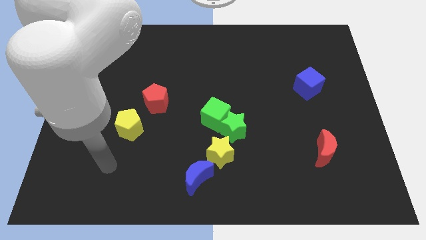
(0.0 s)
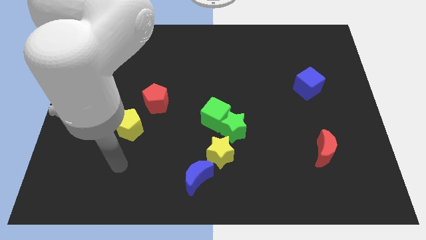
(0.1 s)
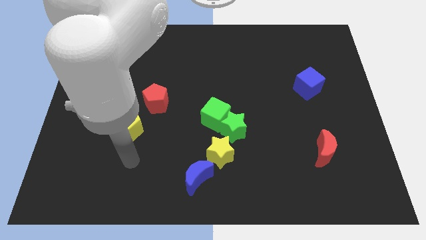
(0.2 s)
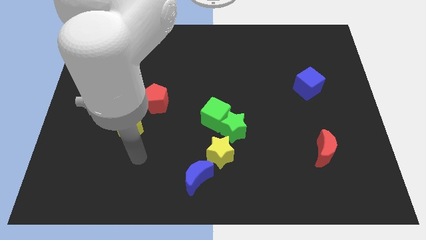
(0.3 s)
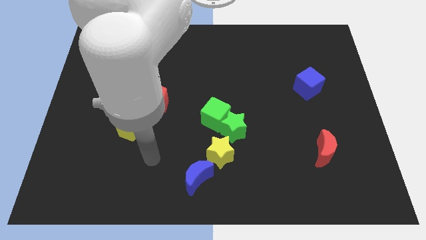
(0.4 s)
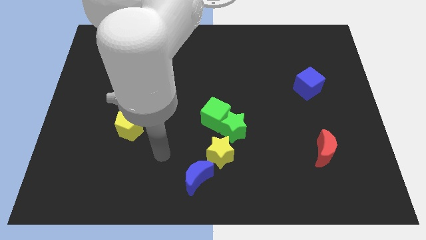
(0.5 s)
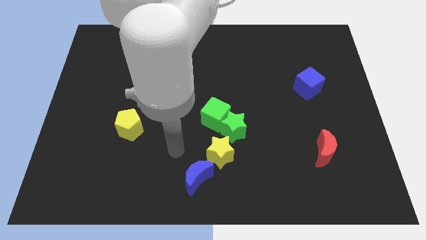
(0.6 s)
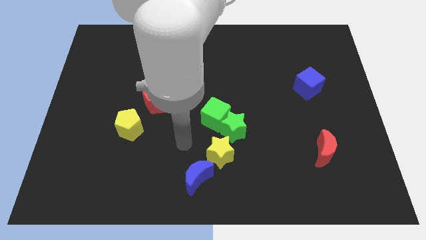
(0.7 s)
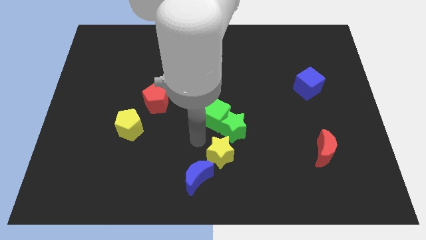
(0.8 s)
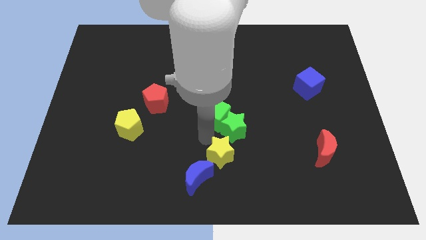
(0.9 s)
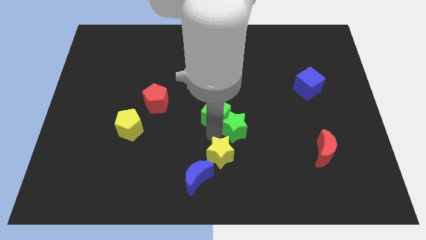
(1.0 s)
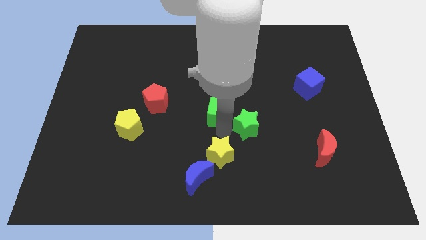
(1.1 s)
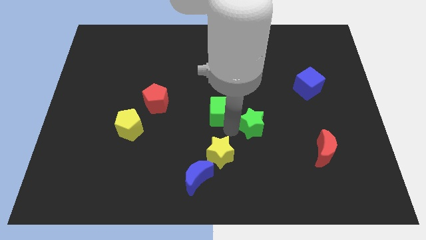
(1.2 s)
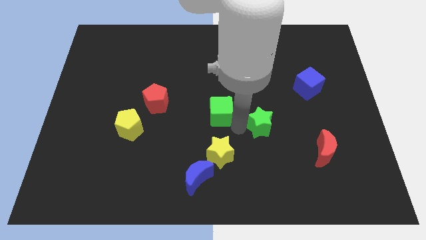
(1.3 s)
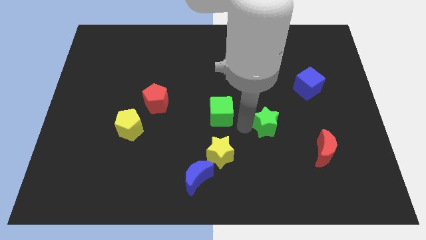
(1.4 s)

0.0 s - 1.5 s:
separate the green star from the green cube and yellow star

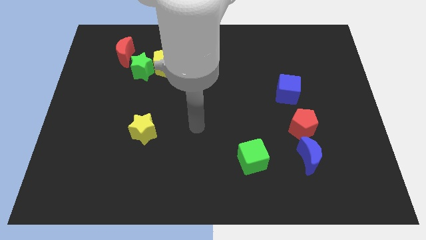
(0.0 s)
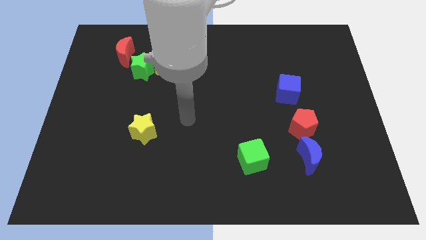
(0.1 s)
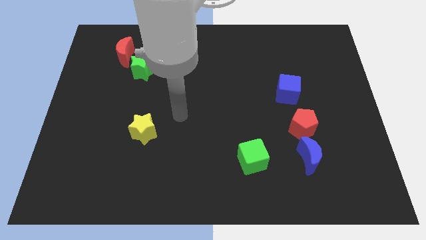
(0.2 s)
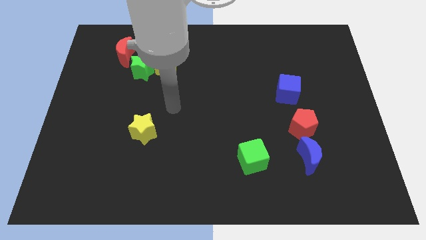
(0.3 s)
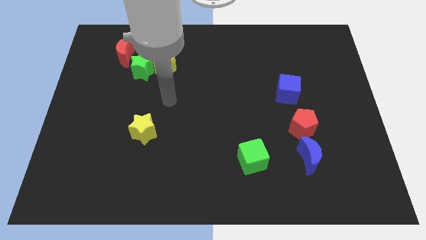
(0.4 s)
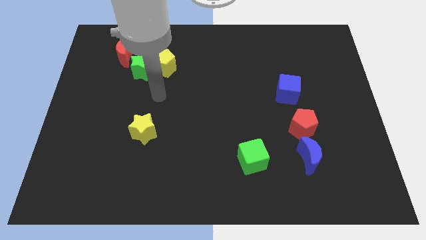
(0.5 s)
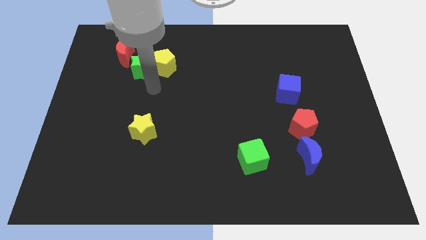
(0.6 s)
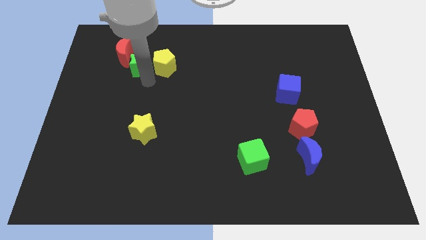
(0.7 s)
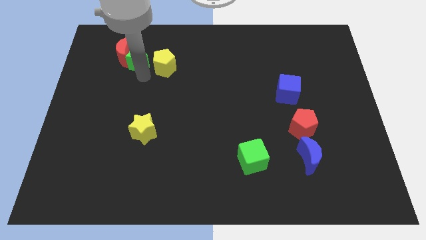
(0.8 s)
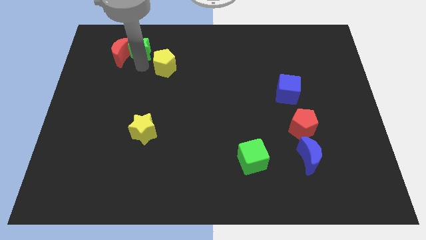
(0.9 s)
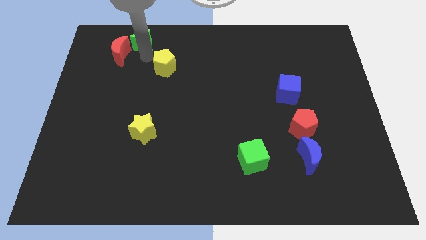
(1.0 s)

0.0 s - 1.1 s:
pull the yellow pentagon apart from the green star

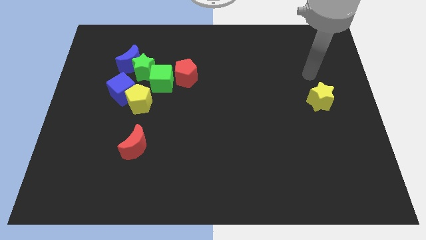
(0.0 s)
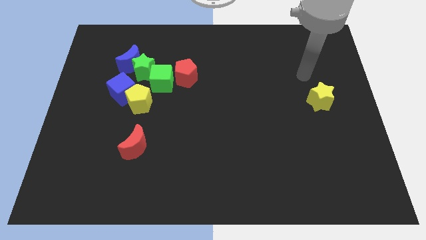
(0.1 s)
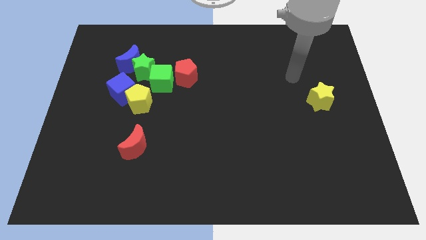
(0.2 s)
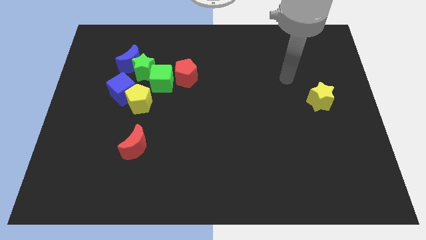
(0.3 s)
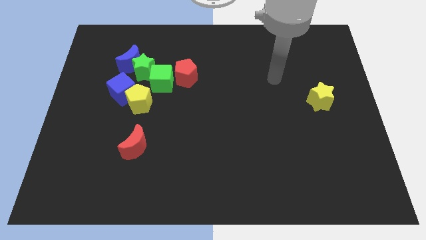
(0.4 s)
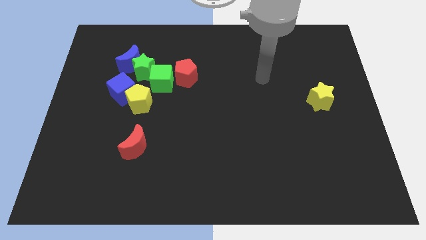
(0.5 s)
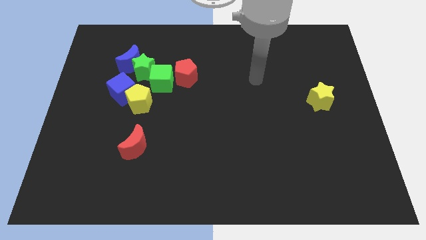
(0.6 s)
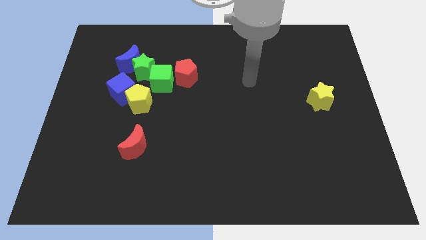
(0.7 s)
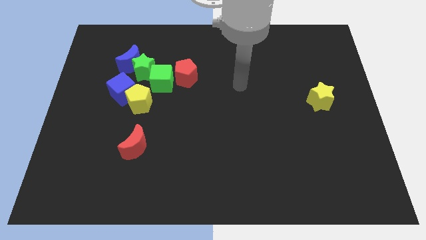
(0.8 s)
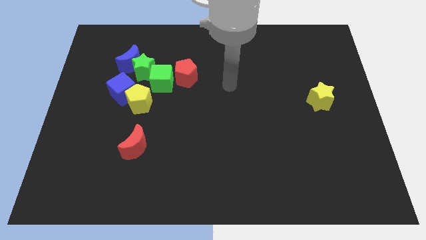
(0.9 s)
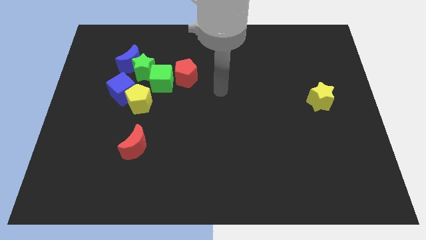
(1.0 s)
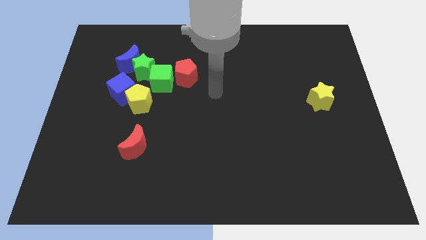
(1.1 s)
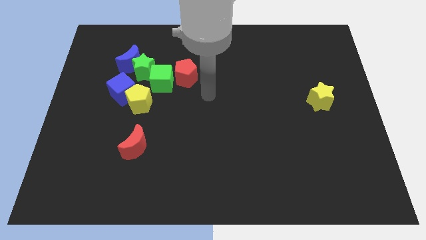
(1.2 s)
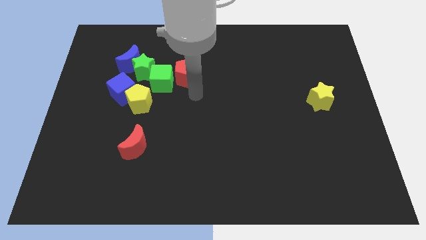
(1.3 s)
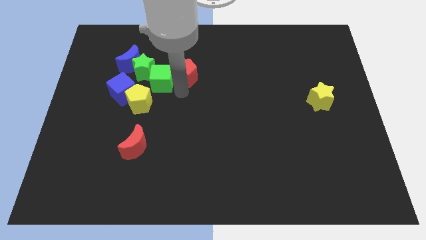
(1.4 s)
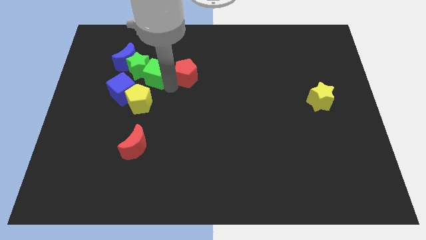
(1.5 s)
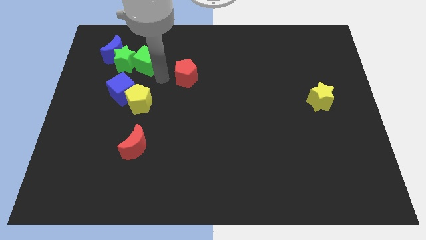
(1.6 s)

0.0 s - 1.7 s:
move the red pentagon away from the green cube

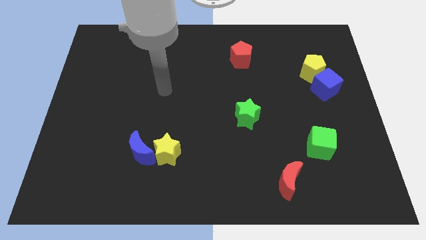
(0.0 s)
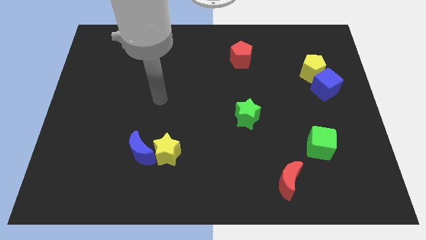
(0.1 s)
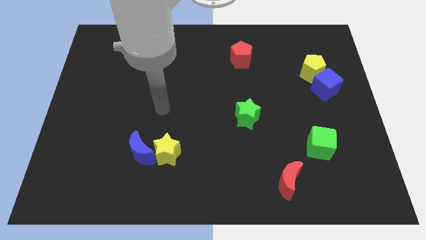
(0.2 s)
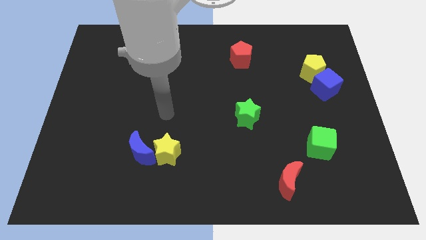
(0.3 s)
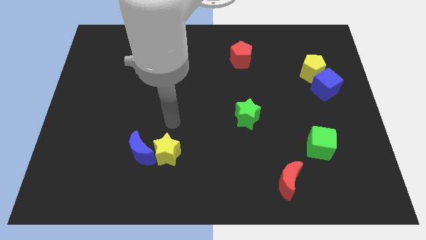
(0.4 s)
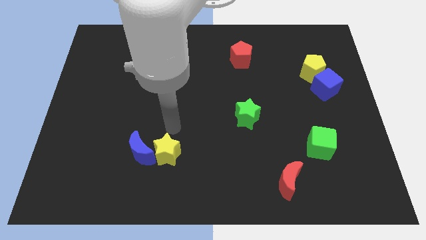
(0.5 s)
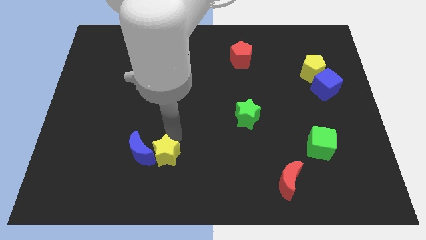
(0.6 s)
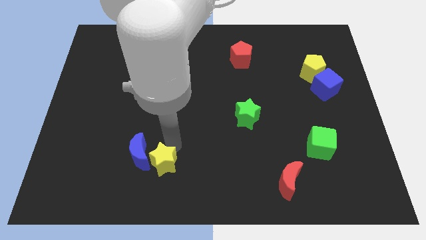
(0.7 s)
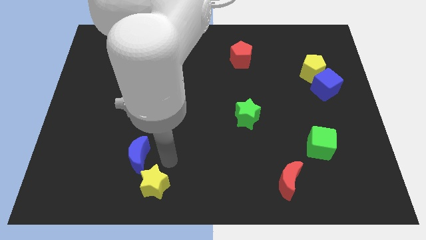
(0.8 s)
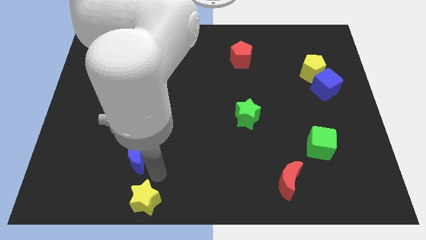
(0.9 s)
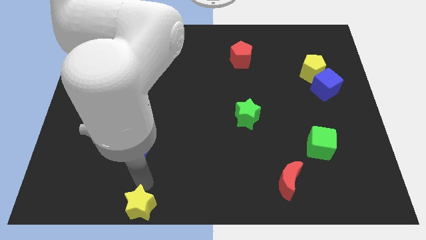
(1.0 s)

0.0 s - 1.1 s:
pull the blue moon apart from the yellow star

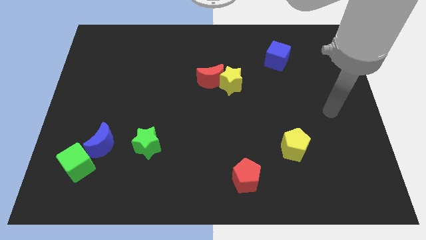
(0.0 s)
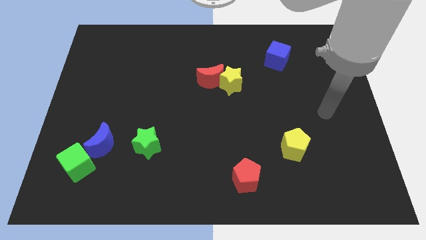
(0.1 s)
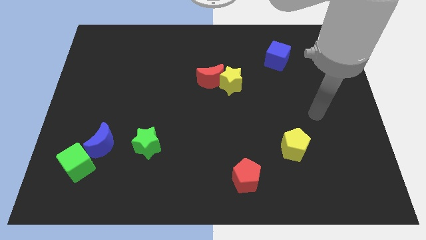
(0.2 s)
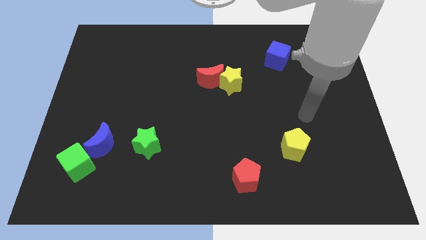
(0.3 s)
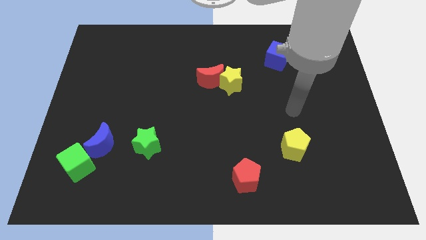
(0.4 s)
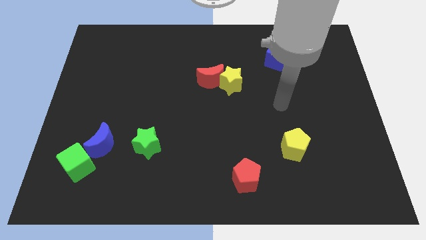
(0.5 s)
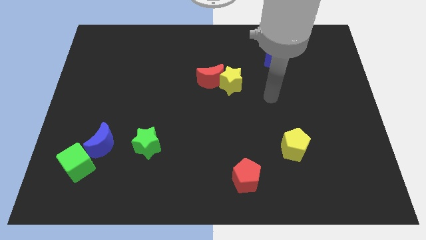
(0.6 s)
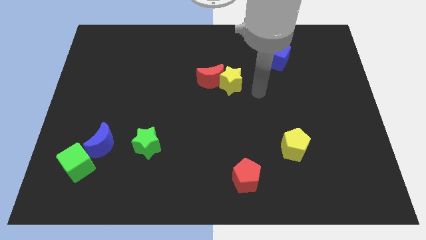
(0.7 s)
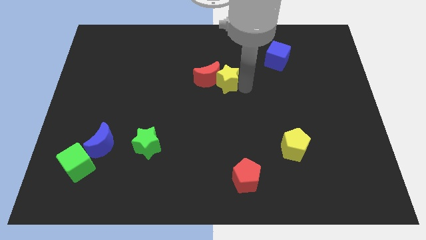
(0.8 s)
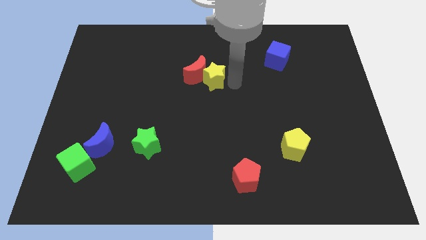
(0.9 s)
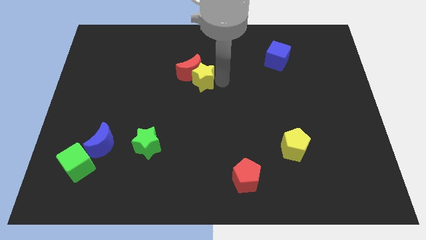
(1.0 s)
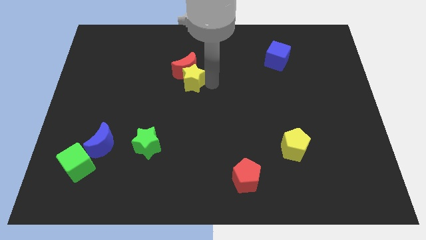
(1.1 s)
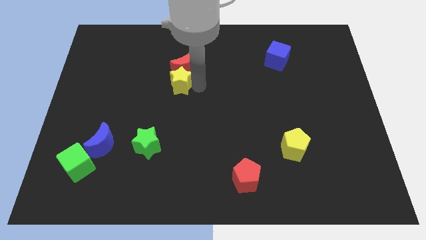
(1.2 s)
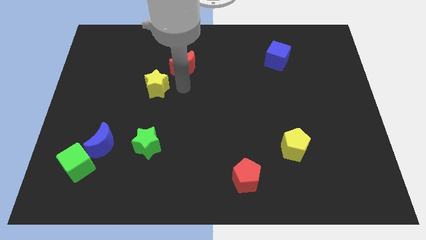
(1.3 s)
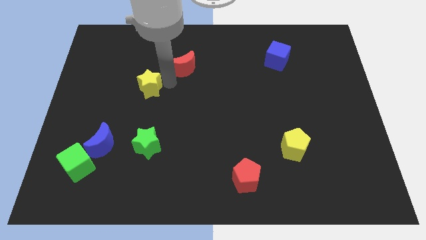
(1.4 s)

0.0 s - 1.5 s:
separate the red moon from the yellow star

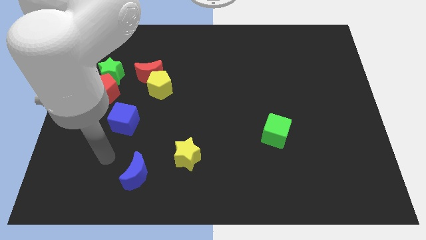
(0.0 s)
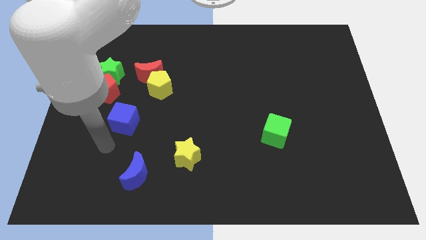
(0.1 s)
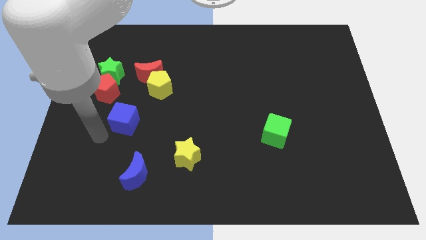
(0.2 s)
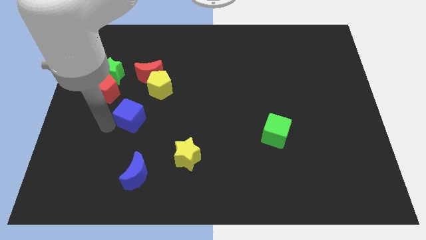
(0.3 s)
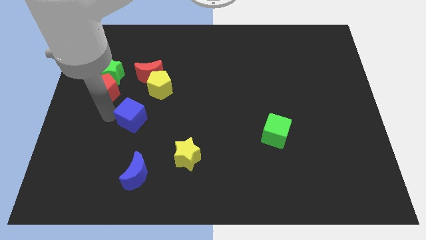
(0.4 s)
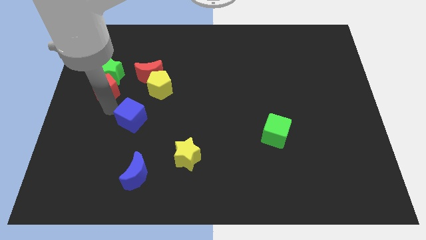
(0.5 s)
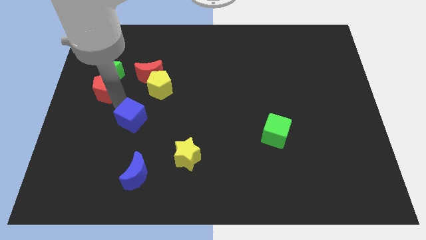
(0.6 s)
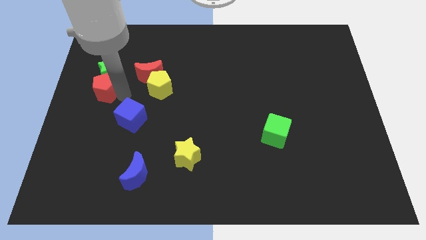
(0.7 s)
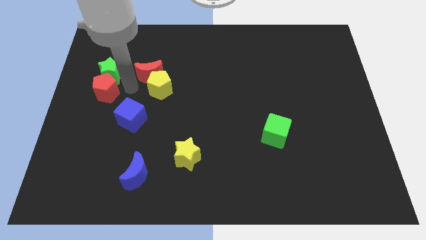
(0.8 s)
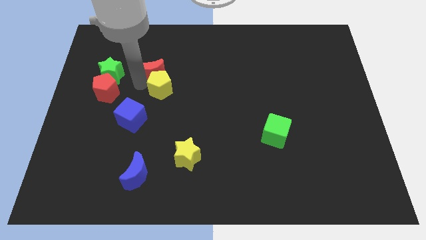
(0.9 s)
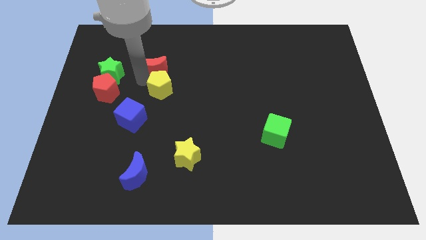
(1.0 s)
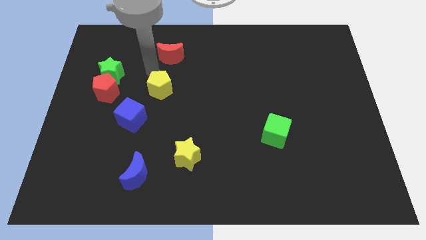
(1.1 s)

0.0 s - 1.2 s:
pull the yellow pentagon apart from the red moon

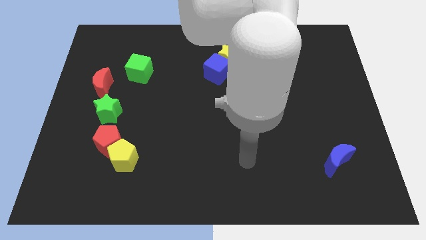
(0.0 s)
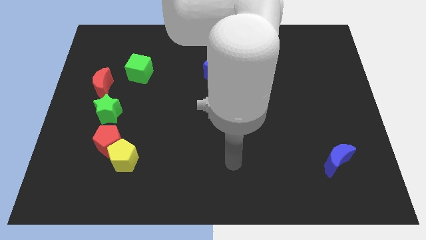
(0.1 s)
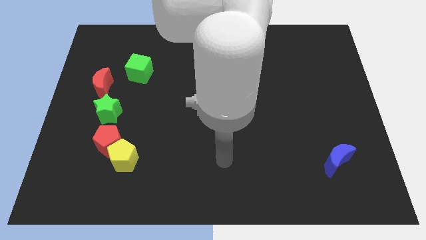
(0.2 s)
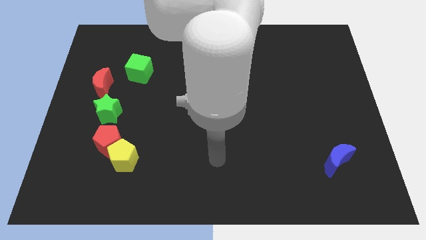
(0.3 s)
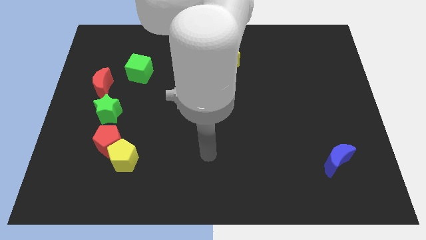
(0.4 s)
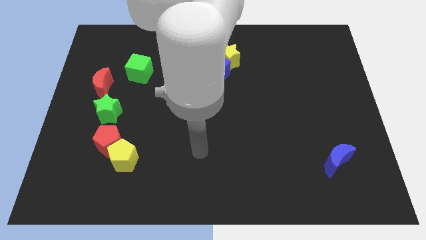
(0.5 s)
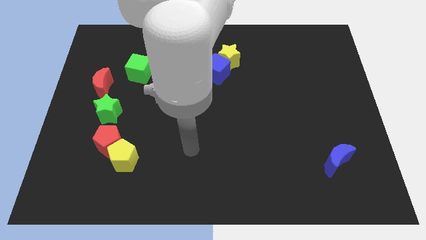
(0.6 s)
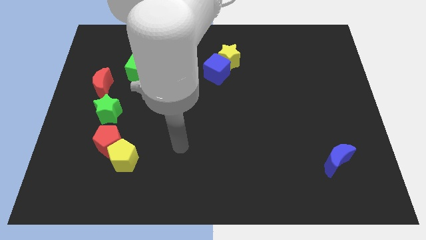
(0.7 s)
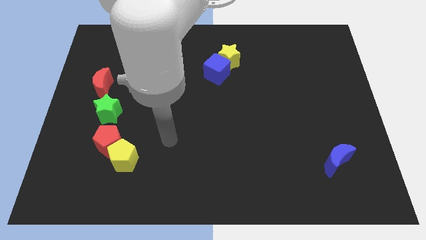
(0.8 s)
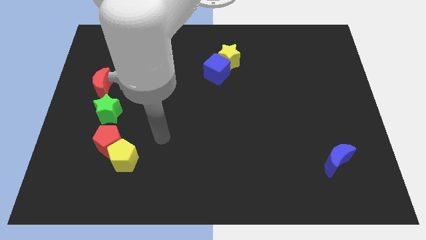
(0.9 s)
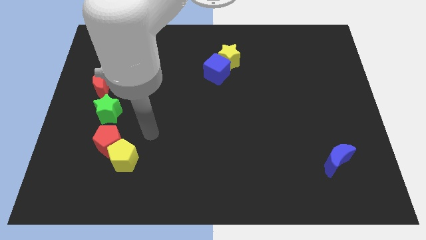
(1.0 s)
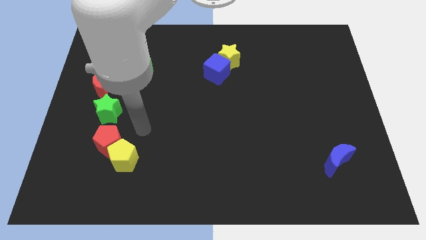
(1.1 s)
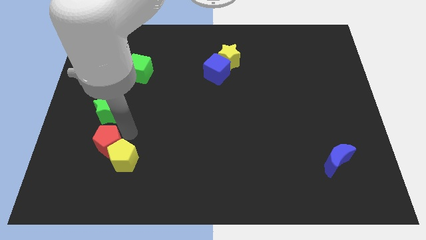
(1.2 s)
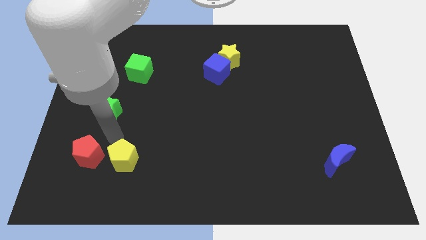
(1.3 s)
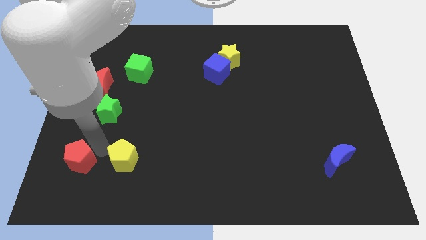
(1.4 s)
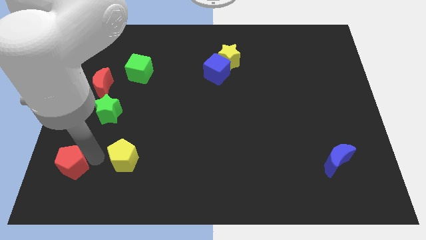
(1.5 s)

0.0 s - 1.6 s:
separate the yellow pentagon from the red pentagon
